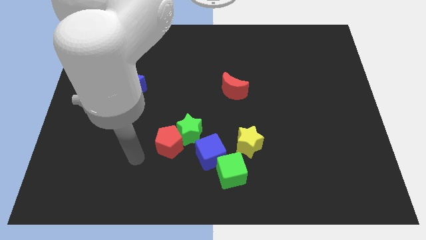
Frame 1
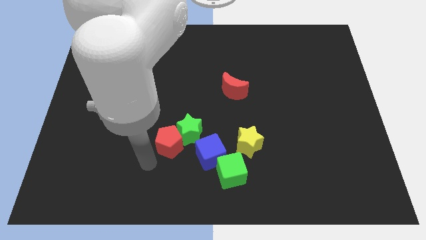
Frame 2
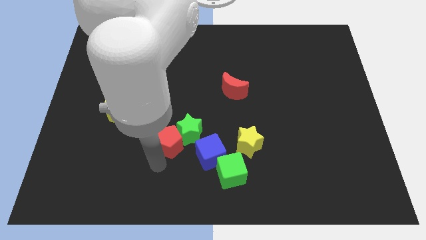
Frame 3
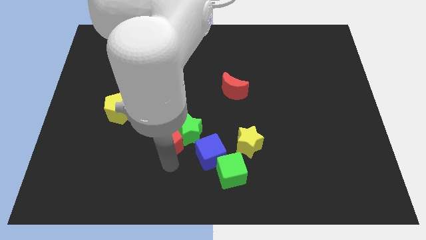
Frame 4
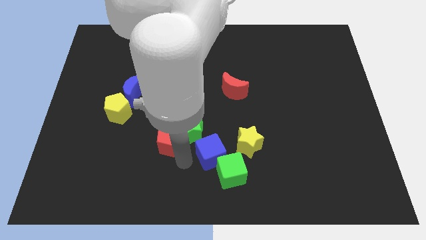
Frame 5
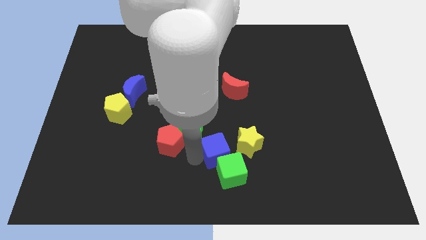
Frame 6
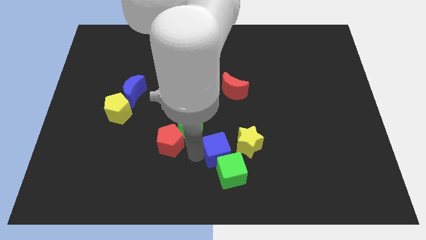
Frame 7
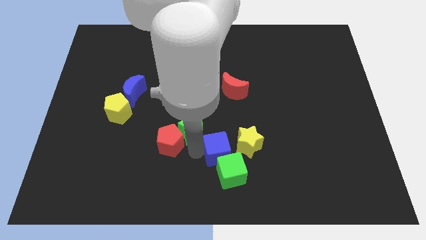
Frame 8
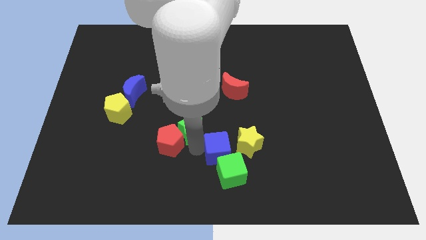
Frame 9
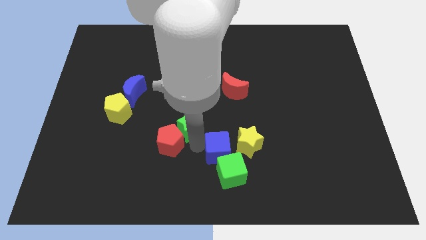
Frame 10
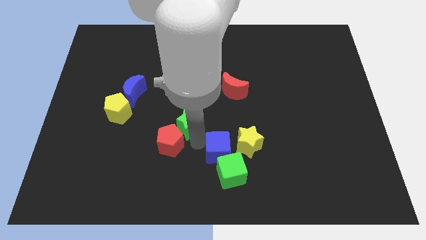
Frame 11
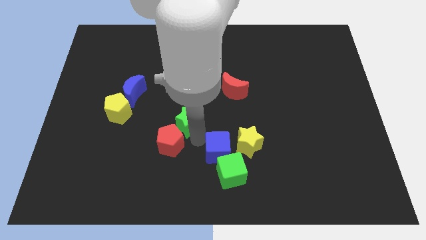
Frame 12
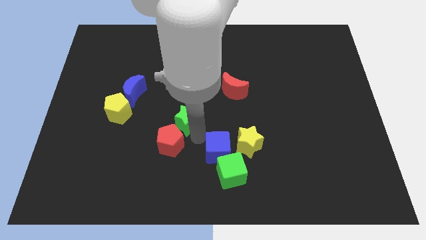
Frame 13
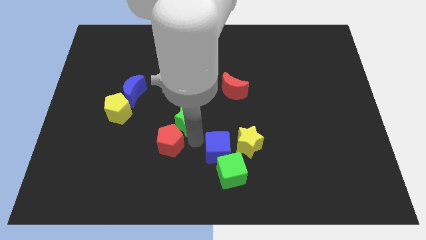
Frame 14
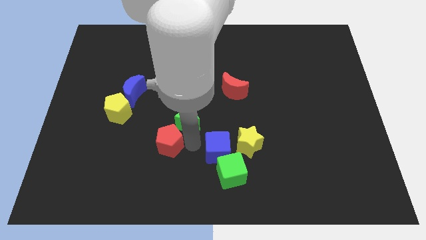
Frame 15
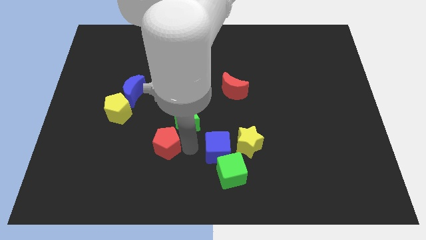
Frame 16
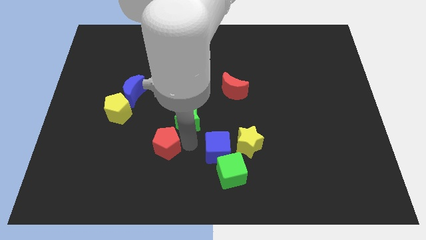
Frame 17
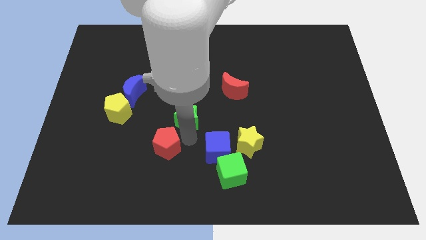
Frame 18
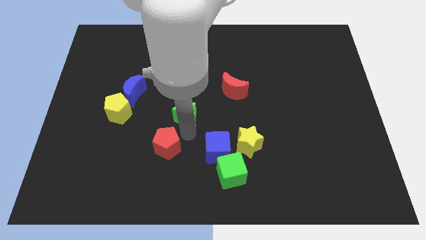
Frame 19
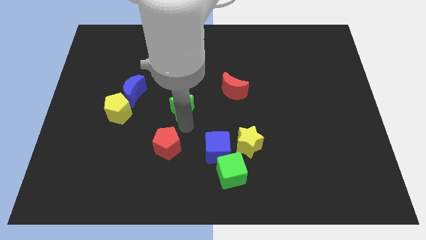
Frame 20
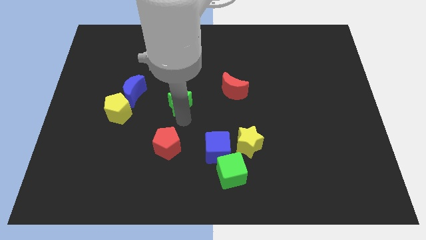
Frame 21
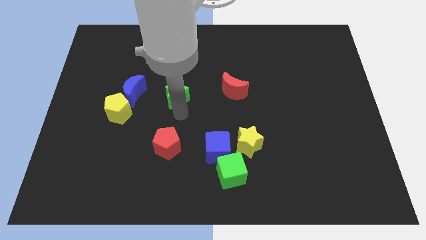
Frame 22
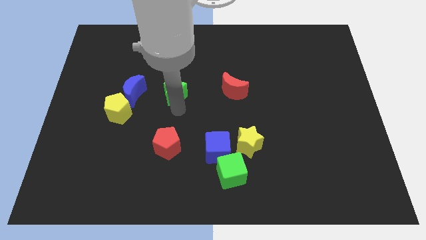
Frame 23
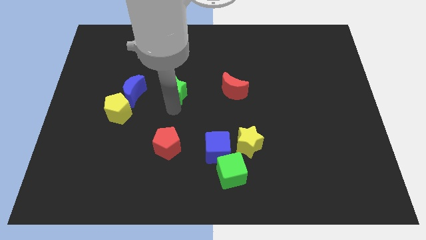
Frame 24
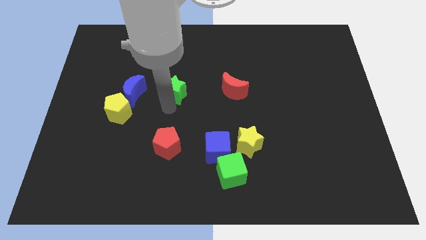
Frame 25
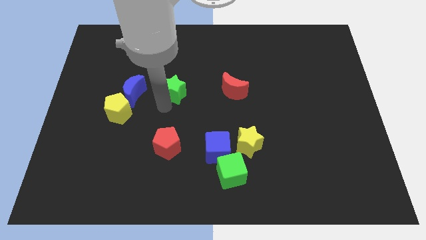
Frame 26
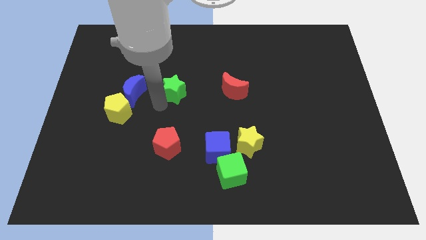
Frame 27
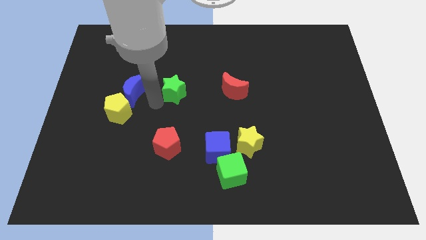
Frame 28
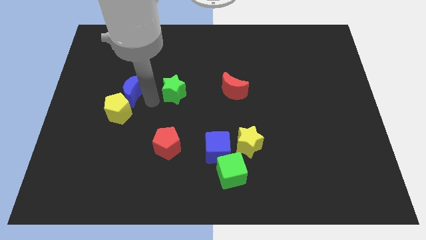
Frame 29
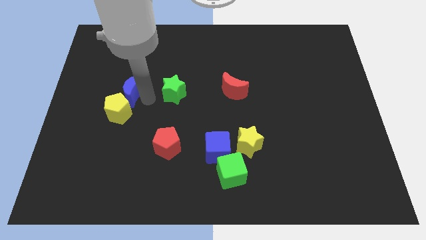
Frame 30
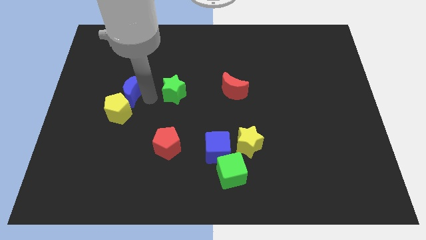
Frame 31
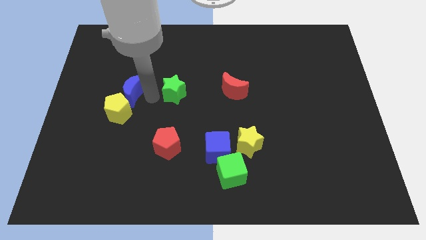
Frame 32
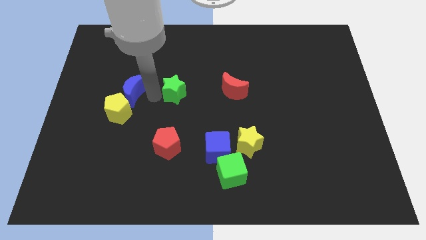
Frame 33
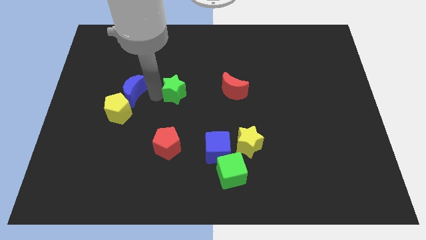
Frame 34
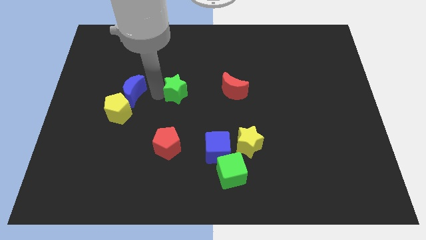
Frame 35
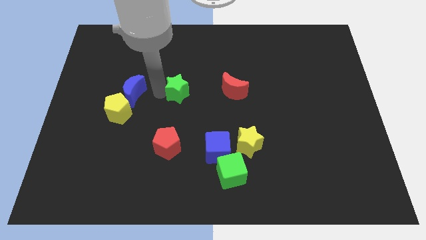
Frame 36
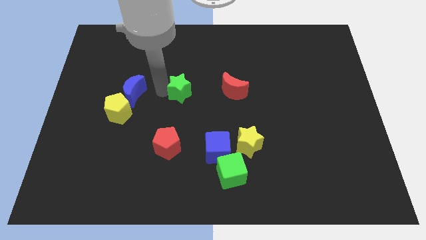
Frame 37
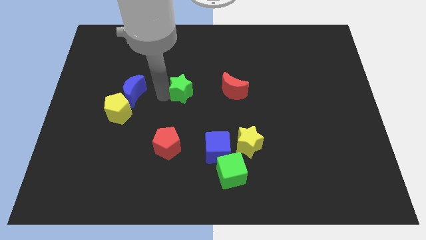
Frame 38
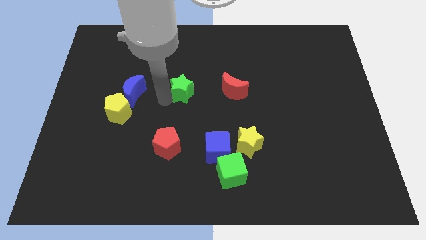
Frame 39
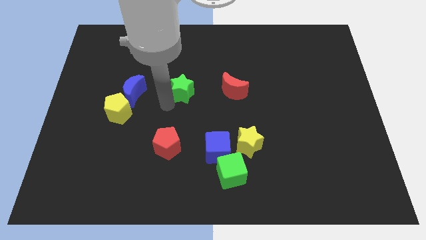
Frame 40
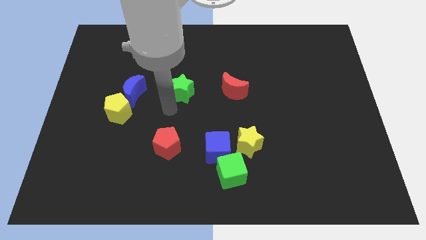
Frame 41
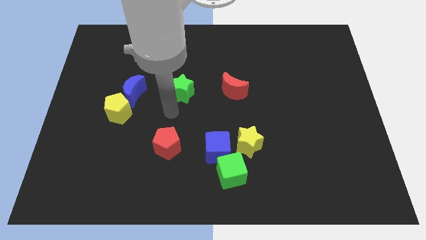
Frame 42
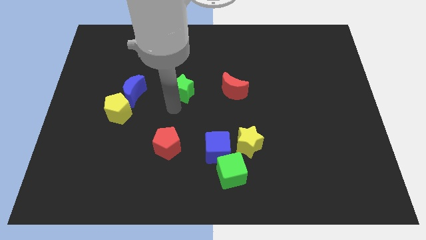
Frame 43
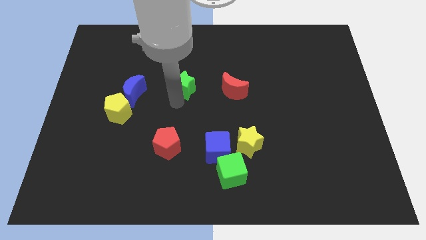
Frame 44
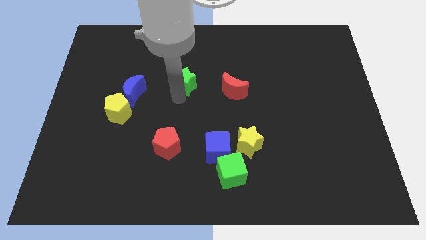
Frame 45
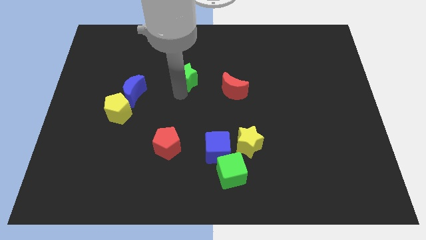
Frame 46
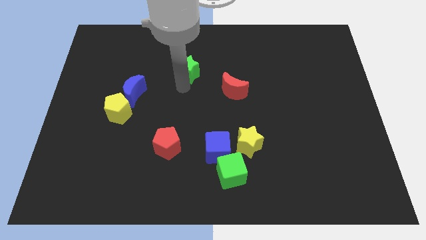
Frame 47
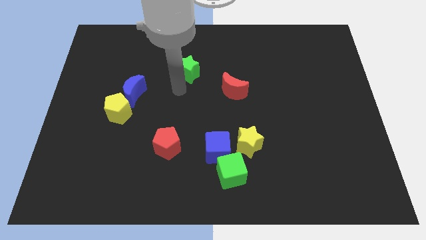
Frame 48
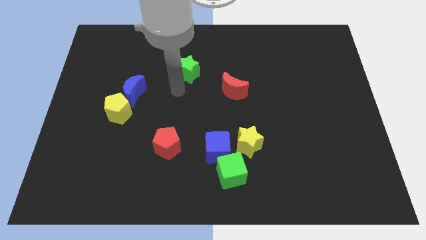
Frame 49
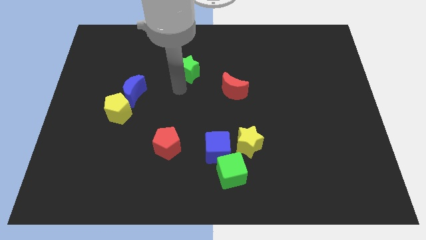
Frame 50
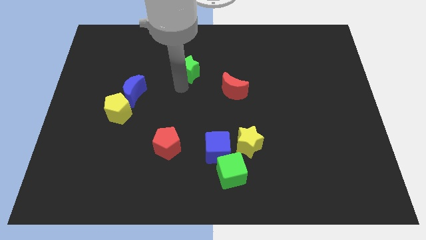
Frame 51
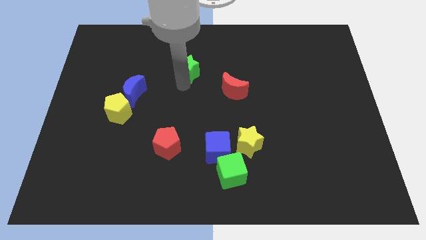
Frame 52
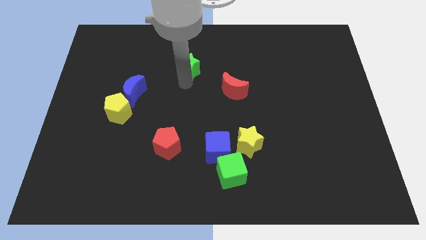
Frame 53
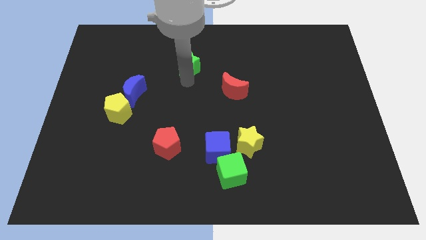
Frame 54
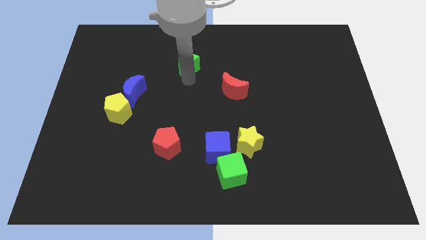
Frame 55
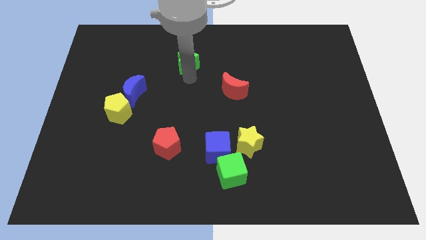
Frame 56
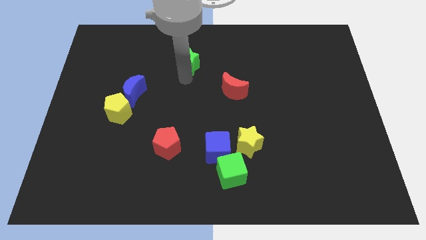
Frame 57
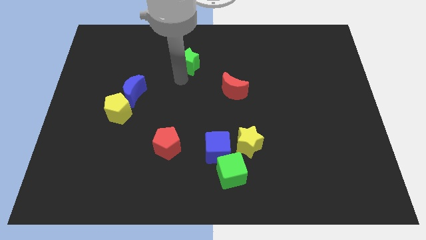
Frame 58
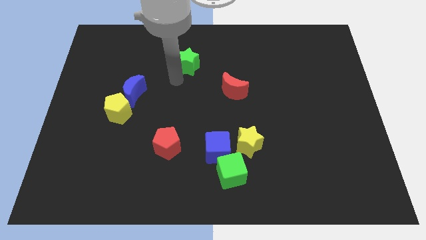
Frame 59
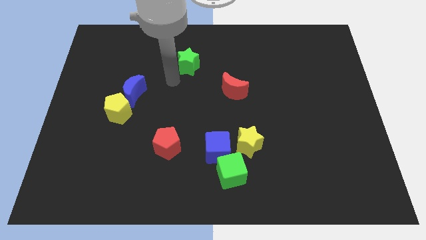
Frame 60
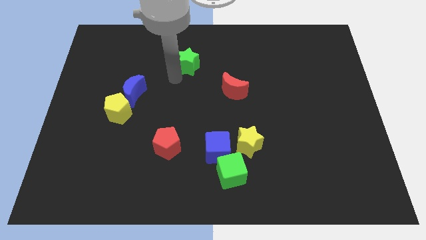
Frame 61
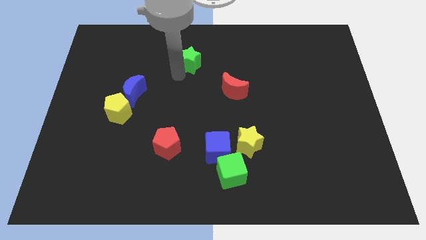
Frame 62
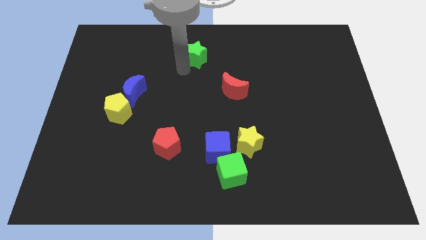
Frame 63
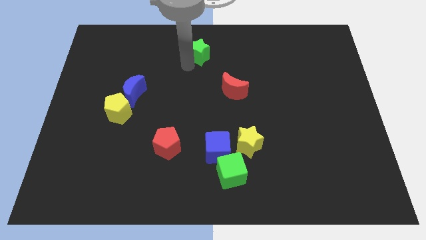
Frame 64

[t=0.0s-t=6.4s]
put the green star to the top
